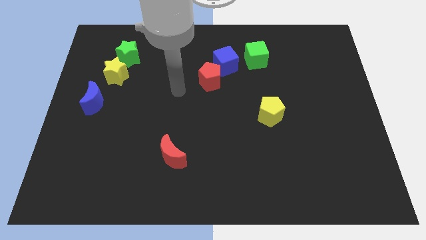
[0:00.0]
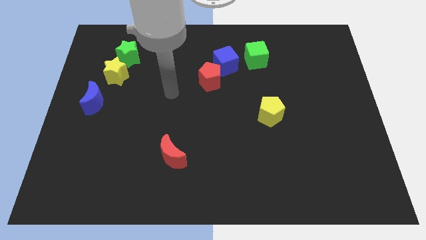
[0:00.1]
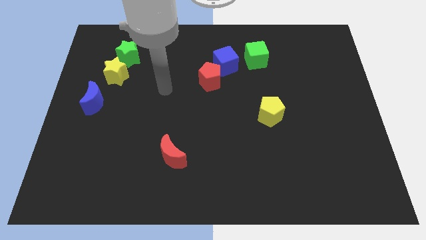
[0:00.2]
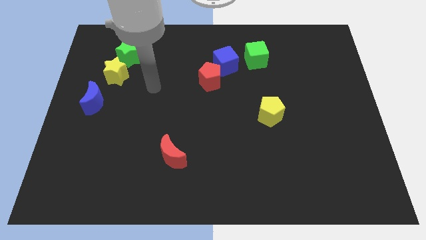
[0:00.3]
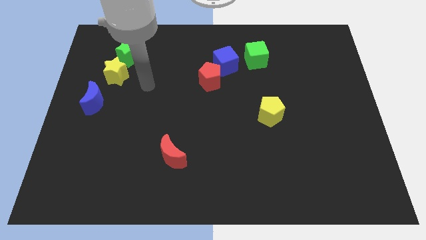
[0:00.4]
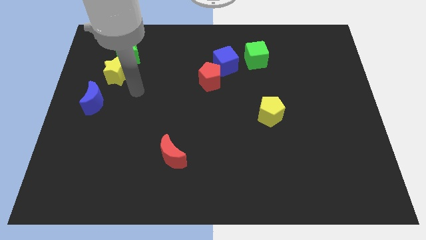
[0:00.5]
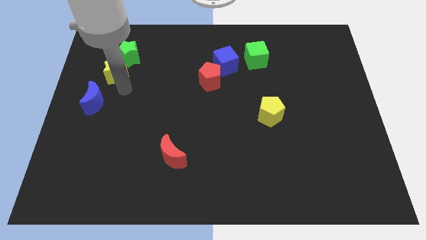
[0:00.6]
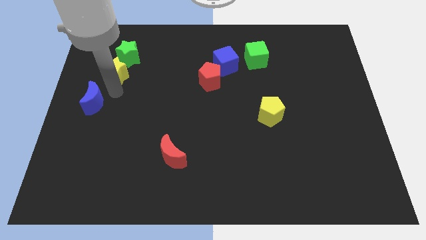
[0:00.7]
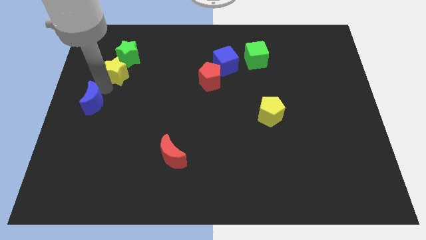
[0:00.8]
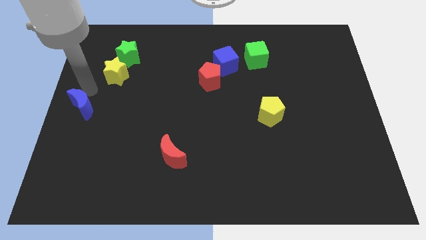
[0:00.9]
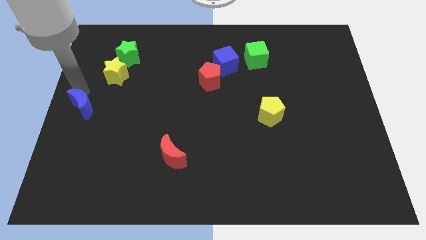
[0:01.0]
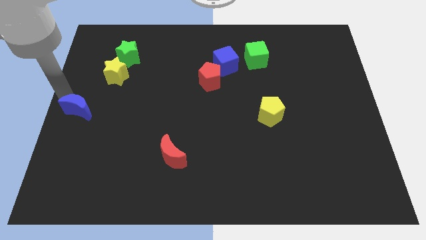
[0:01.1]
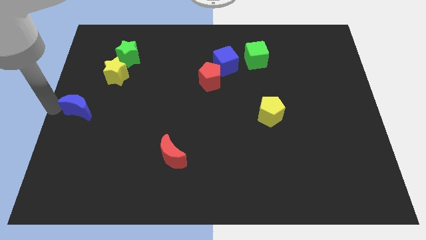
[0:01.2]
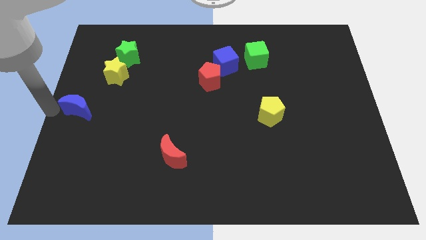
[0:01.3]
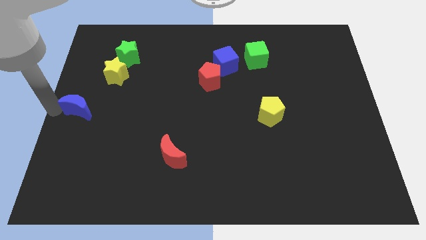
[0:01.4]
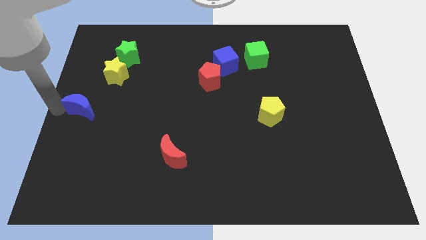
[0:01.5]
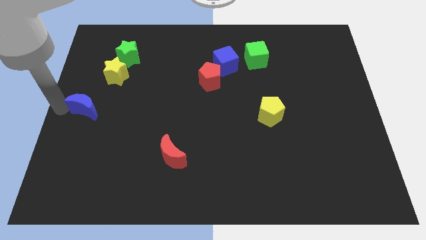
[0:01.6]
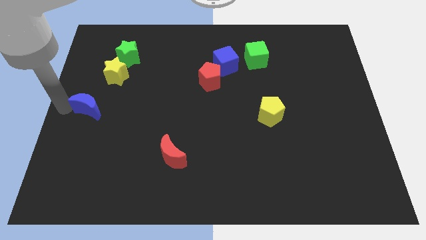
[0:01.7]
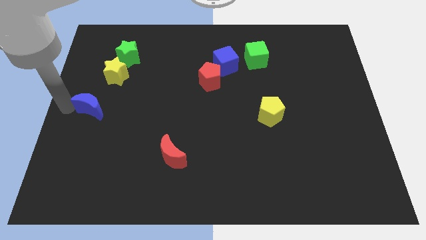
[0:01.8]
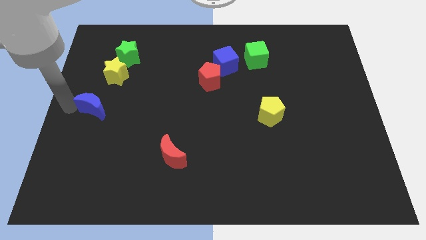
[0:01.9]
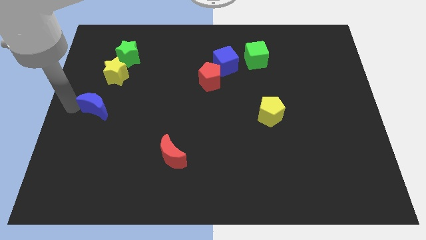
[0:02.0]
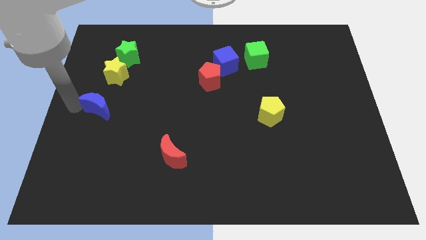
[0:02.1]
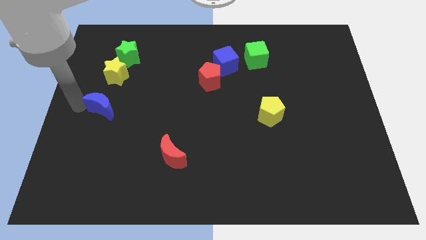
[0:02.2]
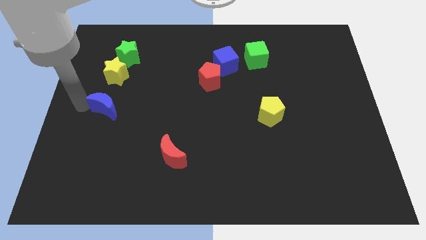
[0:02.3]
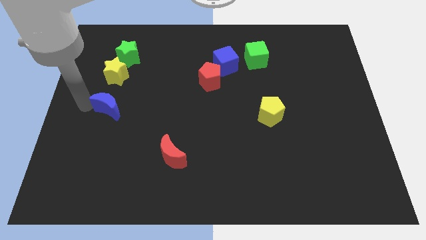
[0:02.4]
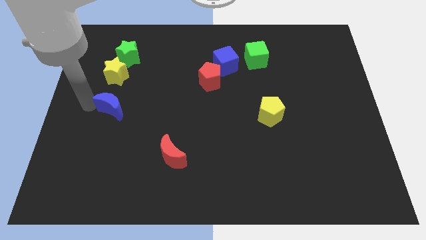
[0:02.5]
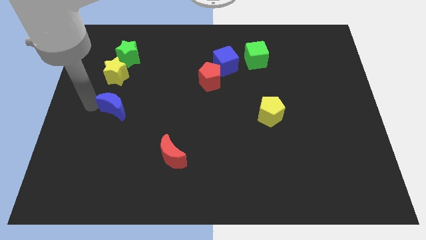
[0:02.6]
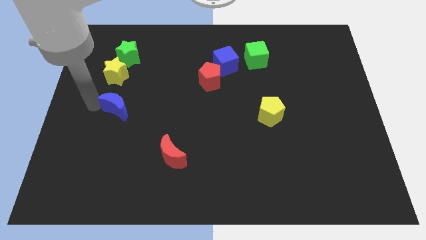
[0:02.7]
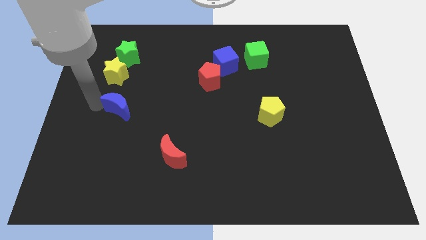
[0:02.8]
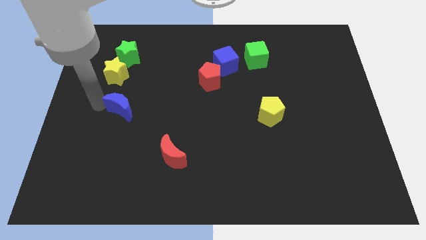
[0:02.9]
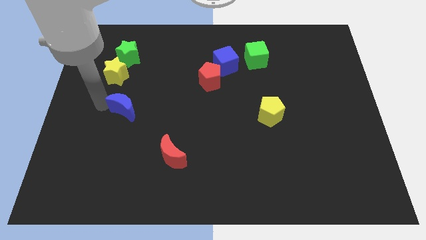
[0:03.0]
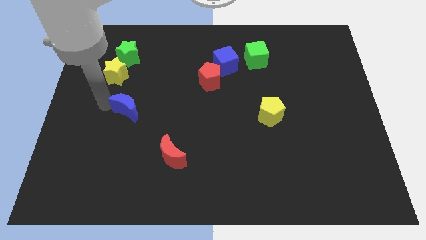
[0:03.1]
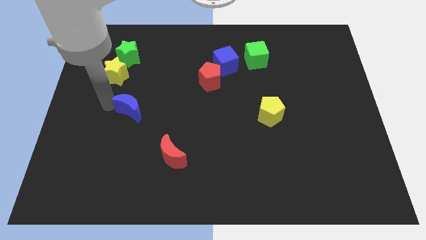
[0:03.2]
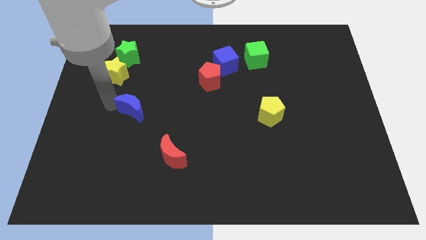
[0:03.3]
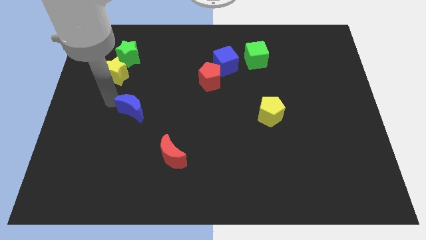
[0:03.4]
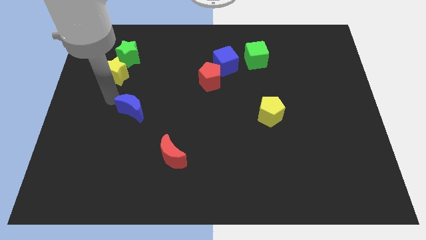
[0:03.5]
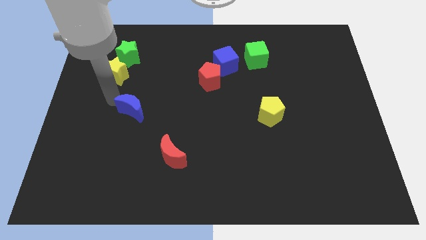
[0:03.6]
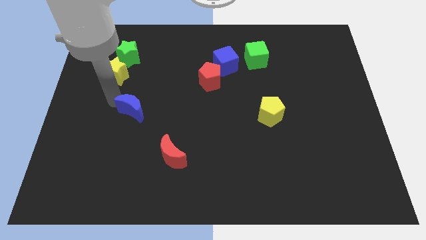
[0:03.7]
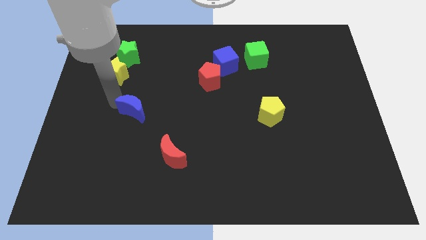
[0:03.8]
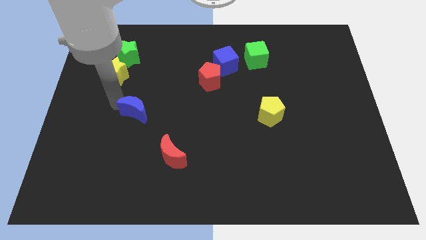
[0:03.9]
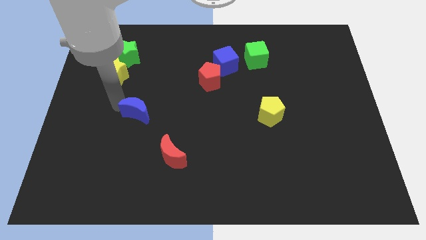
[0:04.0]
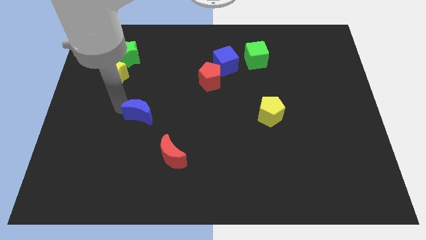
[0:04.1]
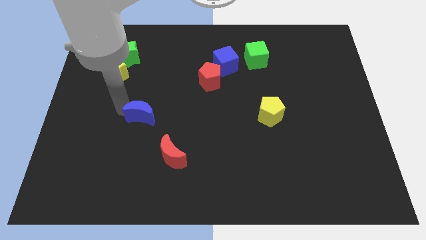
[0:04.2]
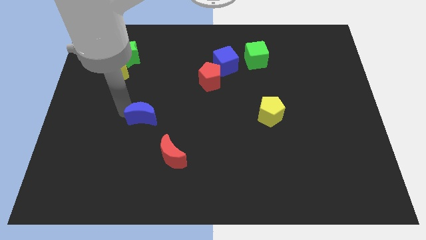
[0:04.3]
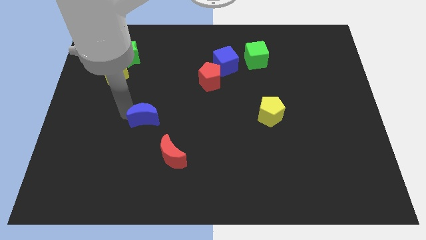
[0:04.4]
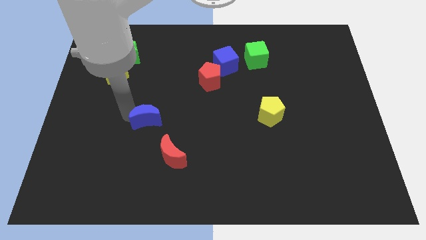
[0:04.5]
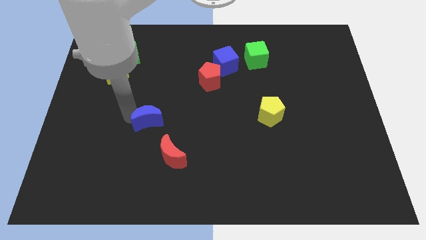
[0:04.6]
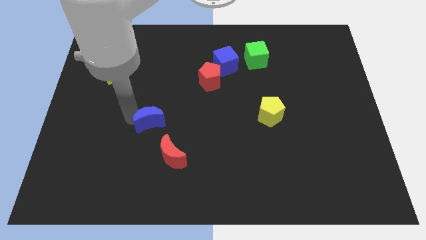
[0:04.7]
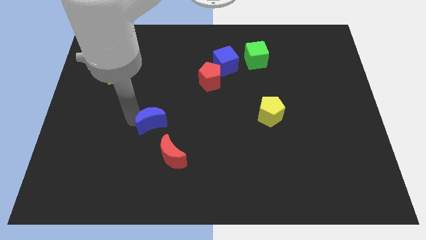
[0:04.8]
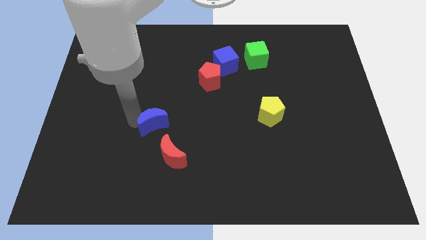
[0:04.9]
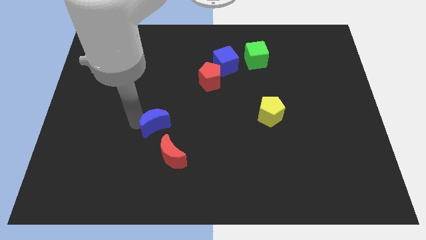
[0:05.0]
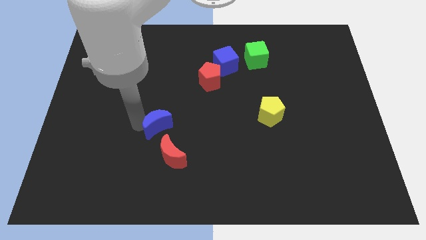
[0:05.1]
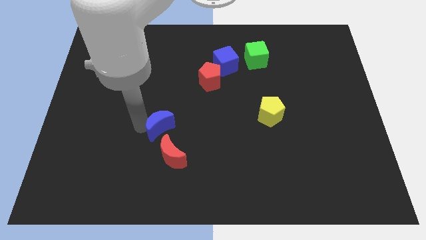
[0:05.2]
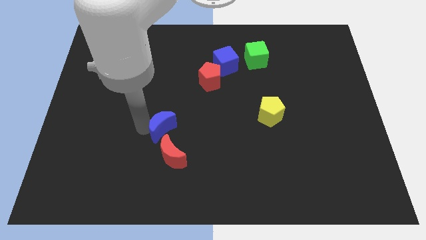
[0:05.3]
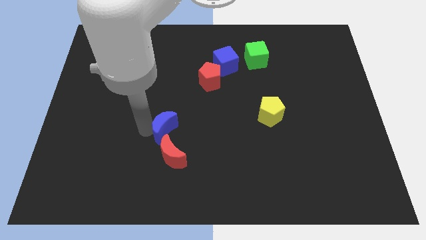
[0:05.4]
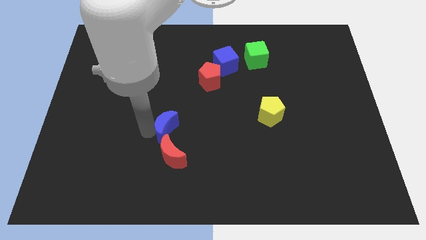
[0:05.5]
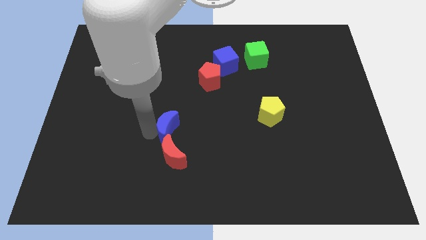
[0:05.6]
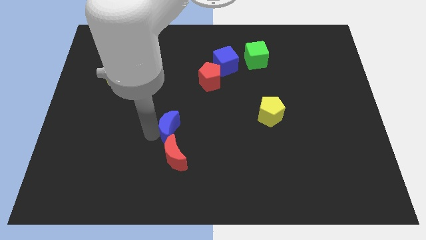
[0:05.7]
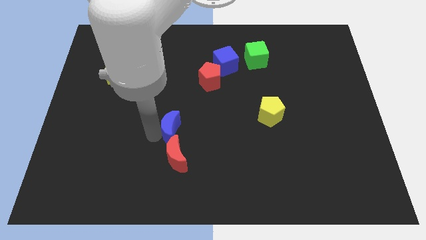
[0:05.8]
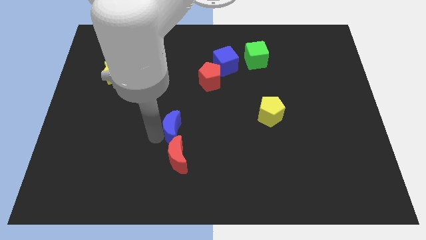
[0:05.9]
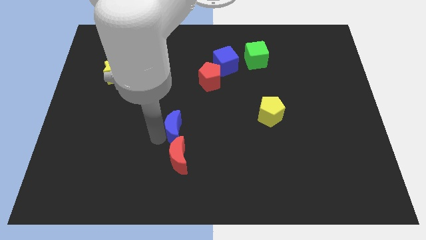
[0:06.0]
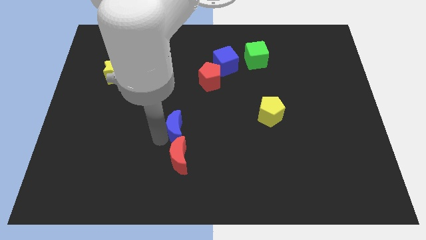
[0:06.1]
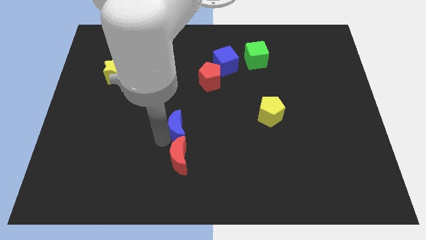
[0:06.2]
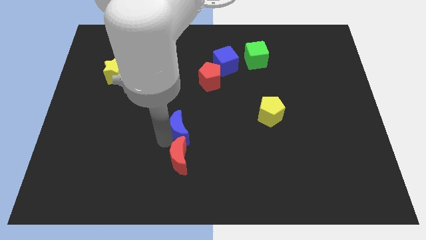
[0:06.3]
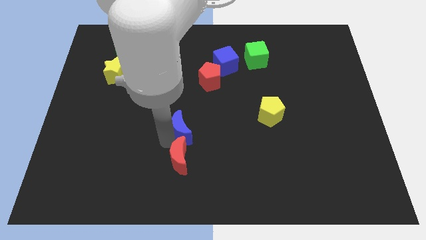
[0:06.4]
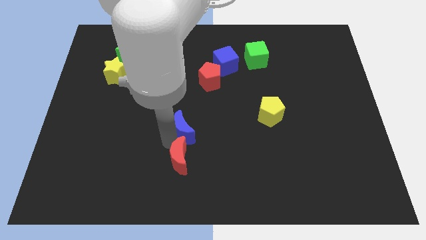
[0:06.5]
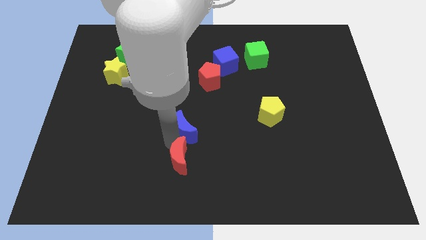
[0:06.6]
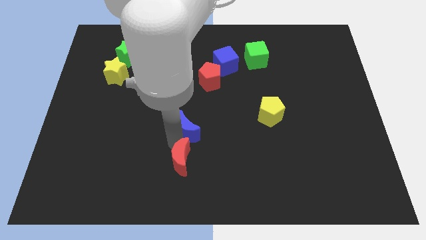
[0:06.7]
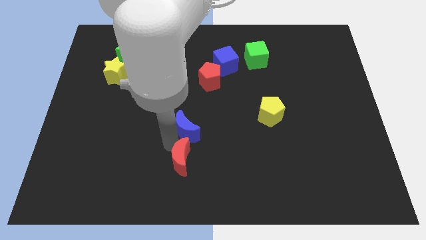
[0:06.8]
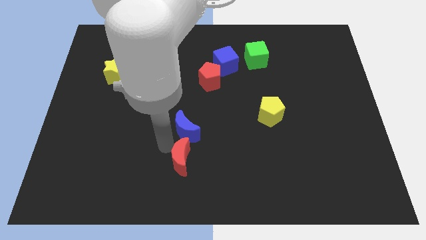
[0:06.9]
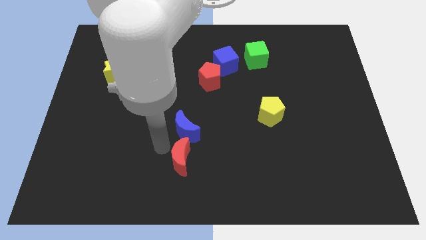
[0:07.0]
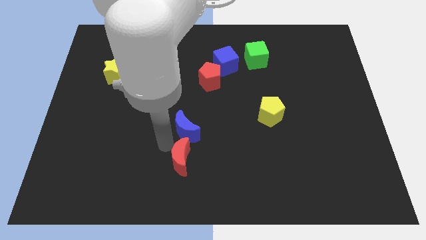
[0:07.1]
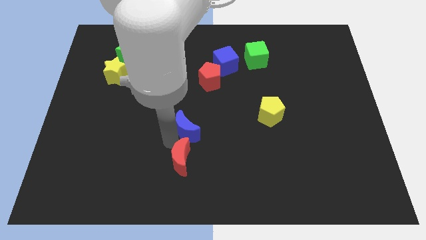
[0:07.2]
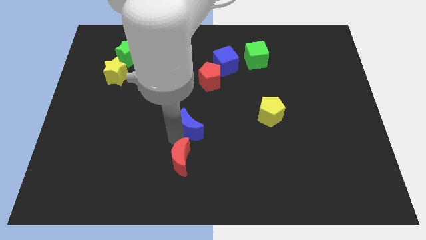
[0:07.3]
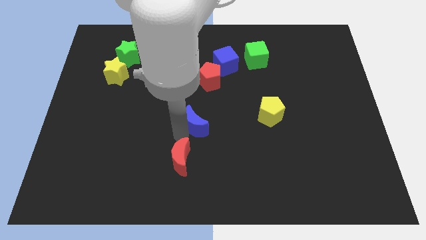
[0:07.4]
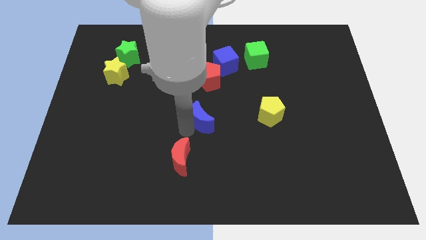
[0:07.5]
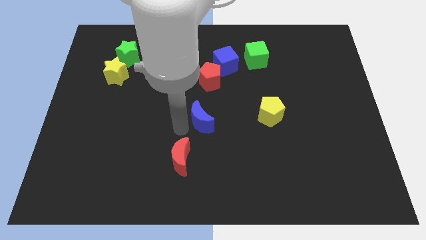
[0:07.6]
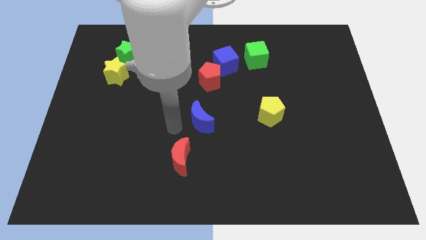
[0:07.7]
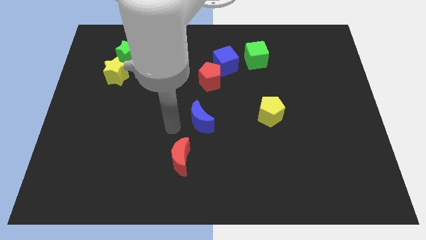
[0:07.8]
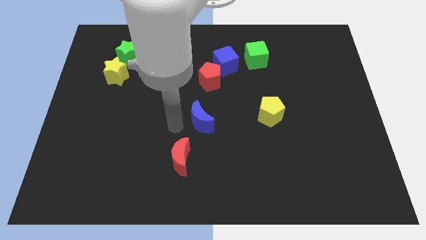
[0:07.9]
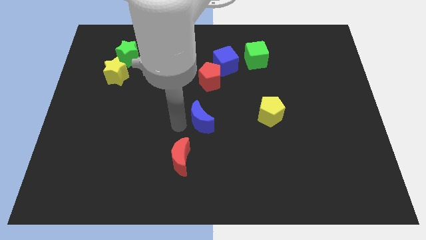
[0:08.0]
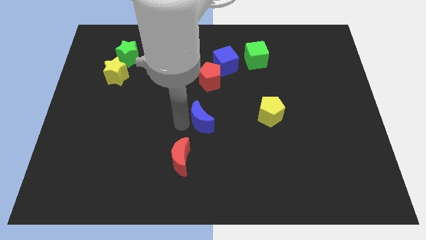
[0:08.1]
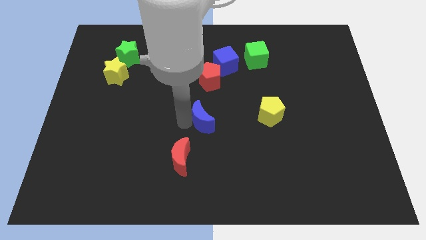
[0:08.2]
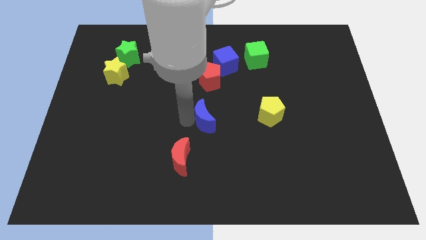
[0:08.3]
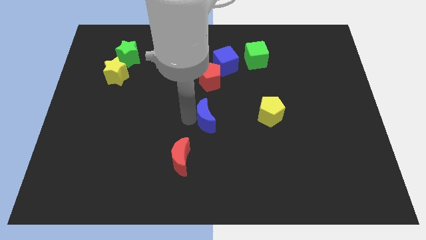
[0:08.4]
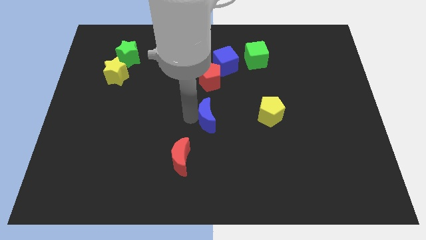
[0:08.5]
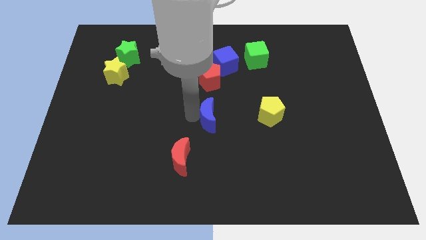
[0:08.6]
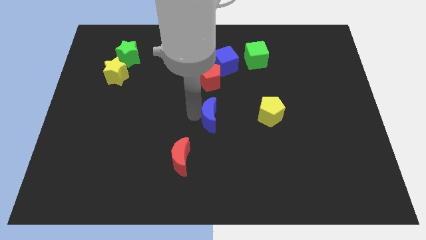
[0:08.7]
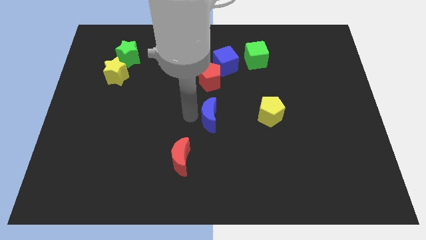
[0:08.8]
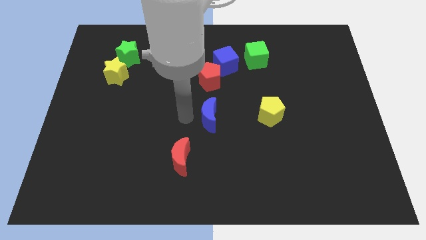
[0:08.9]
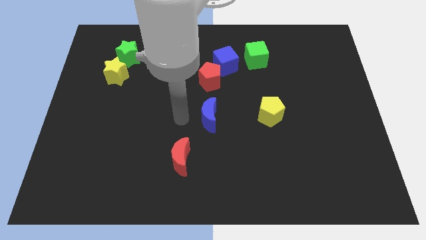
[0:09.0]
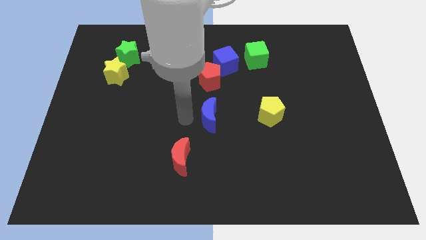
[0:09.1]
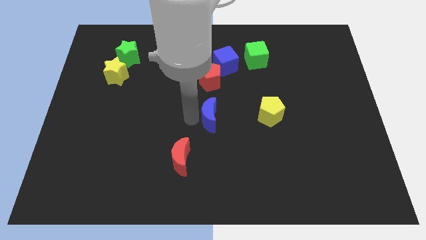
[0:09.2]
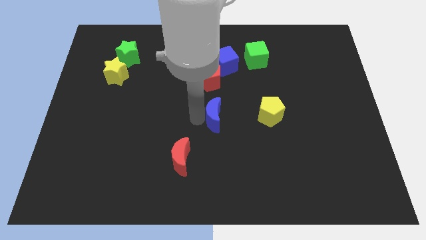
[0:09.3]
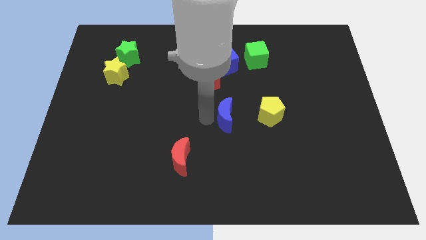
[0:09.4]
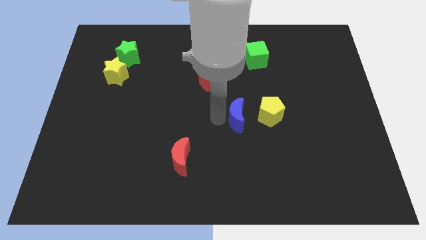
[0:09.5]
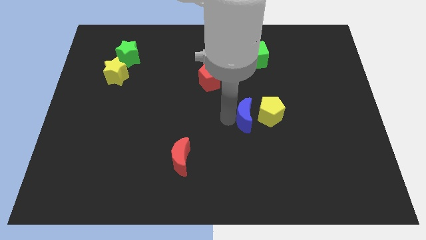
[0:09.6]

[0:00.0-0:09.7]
slide the blue moon towards the yellow pentagon
